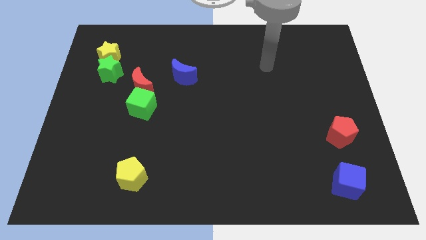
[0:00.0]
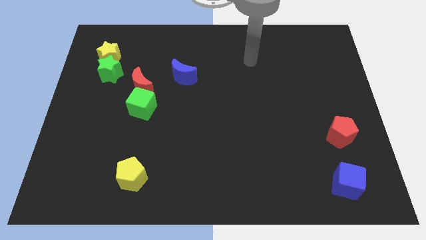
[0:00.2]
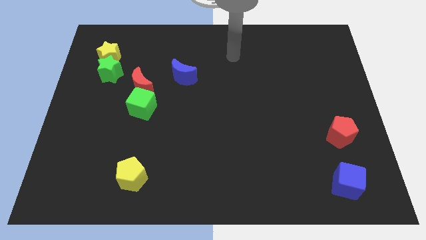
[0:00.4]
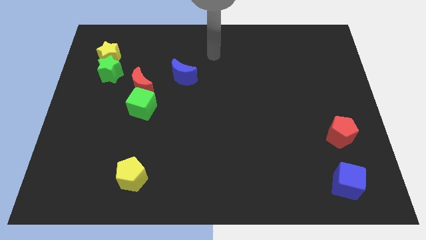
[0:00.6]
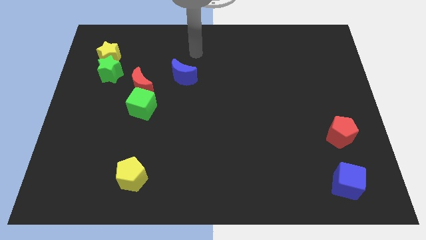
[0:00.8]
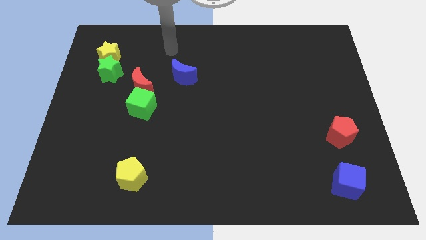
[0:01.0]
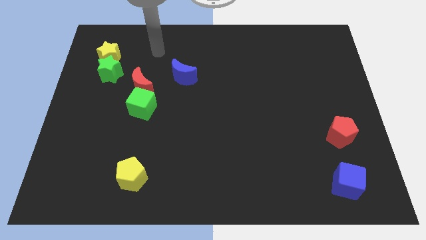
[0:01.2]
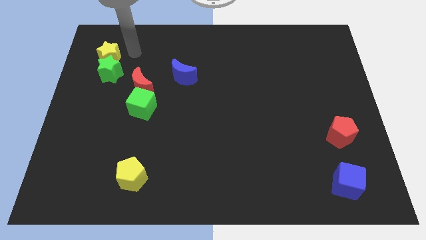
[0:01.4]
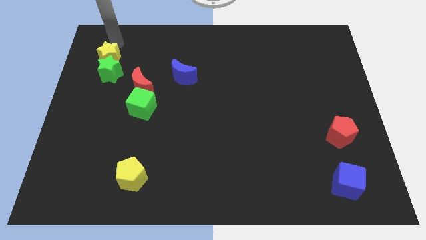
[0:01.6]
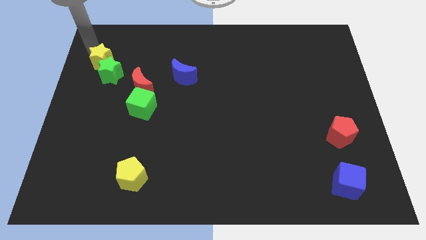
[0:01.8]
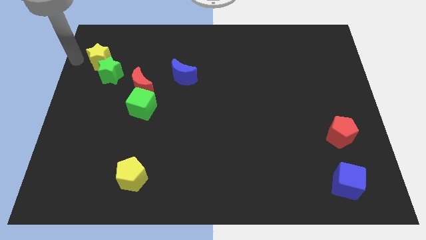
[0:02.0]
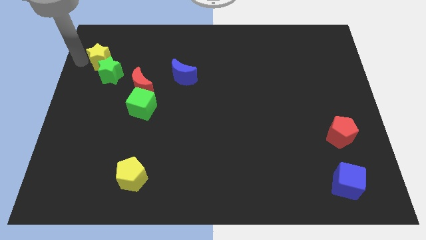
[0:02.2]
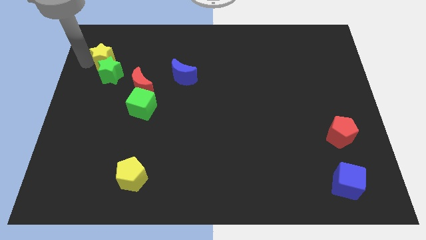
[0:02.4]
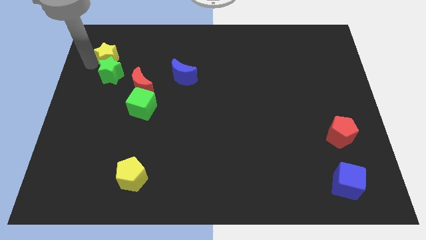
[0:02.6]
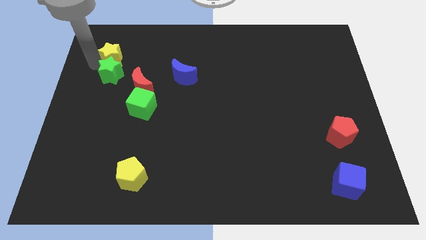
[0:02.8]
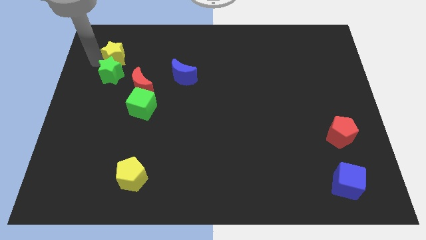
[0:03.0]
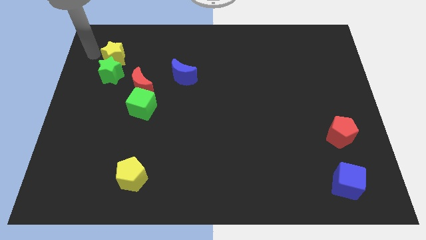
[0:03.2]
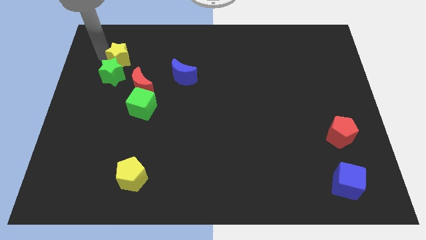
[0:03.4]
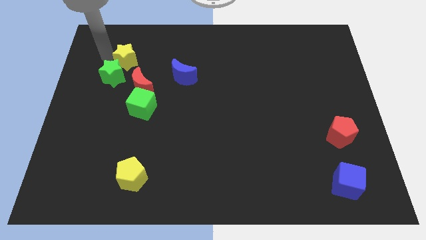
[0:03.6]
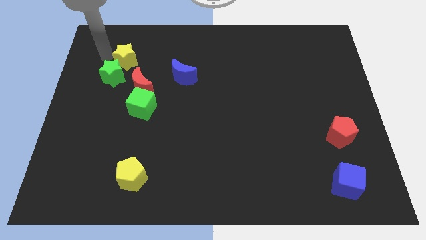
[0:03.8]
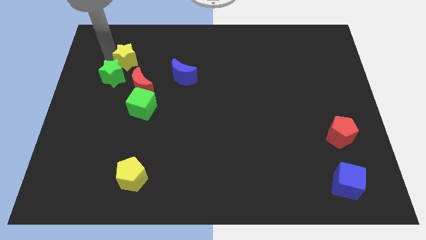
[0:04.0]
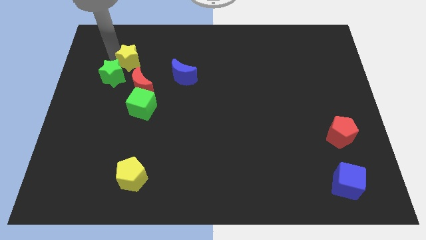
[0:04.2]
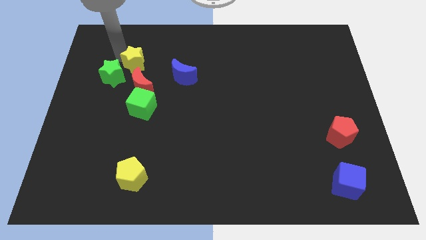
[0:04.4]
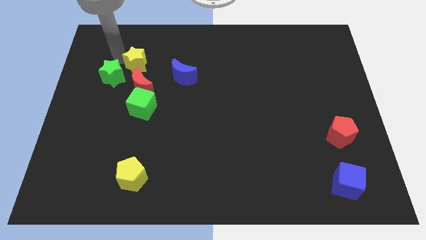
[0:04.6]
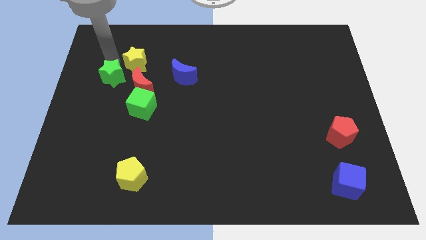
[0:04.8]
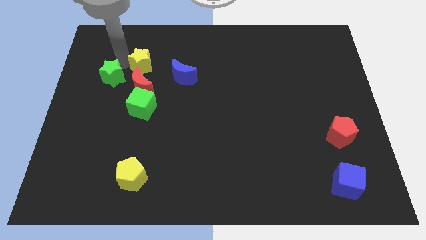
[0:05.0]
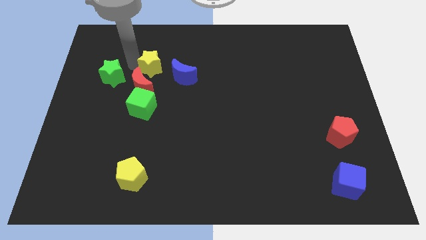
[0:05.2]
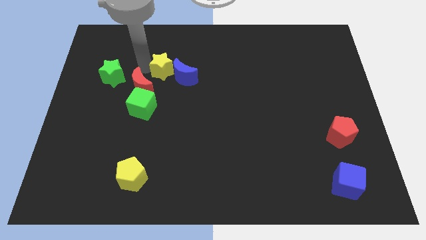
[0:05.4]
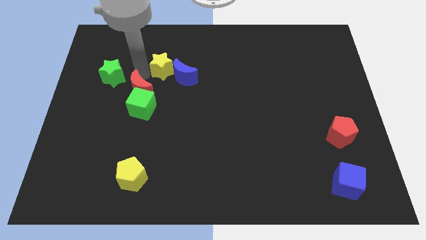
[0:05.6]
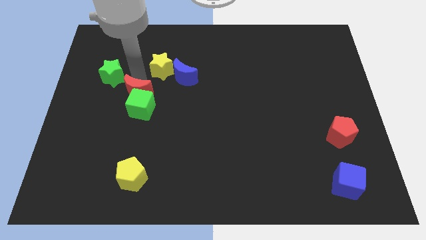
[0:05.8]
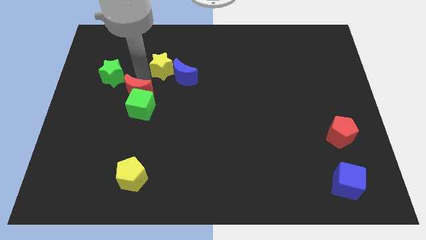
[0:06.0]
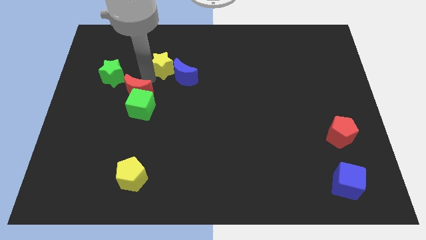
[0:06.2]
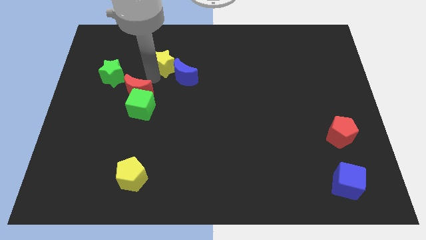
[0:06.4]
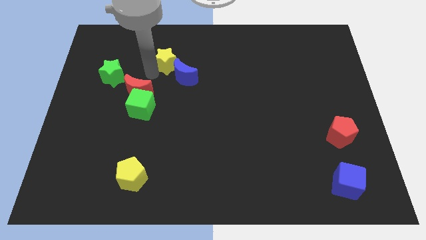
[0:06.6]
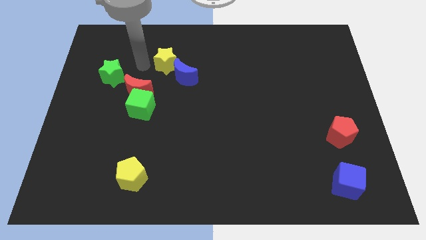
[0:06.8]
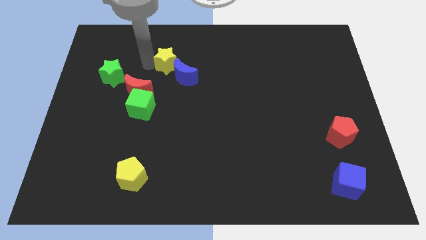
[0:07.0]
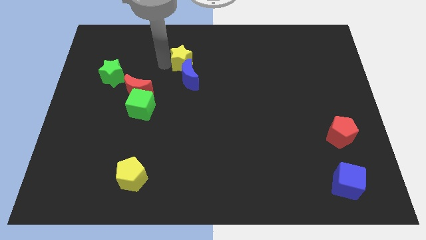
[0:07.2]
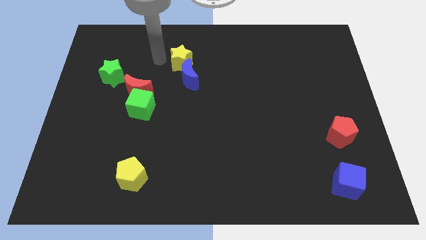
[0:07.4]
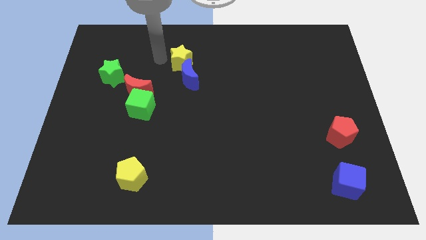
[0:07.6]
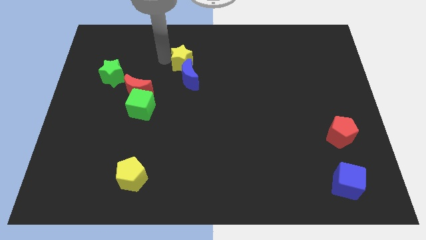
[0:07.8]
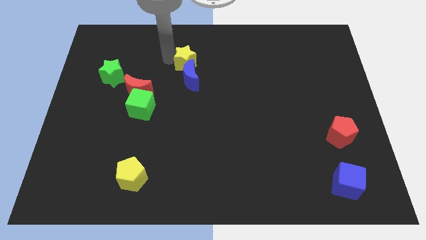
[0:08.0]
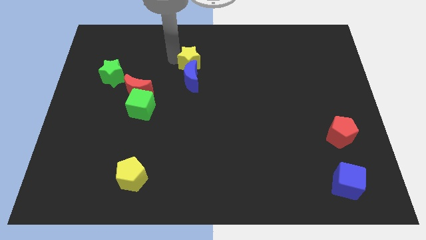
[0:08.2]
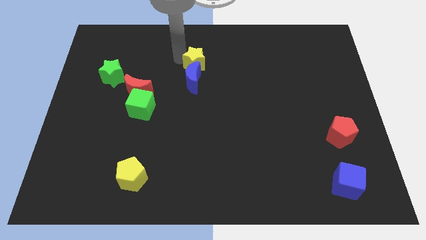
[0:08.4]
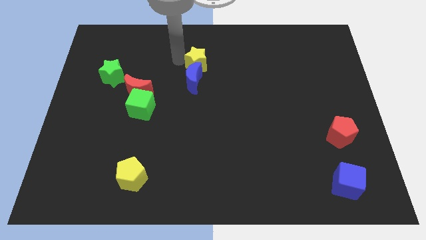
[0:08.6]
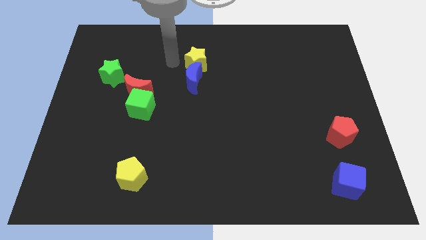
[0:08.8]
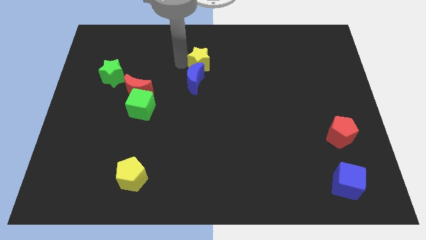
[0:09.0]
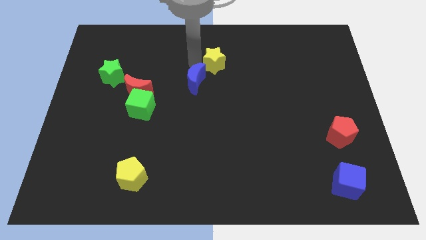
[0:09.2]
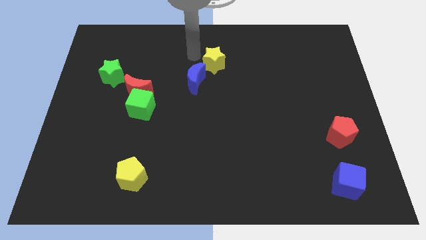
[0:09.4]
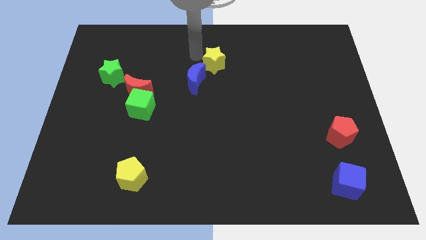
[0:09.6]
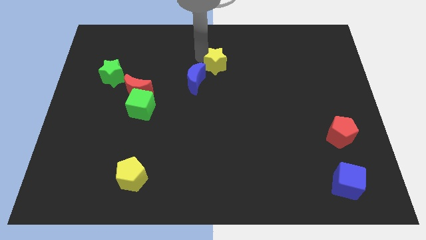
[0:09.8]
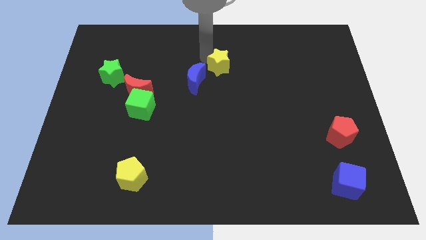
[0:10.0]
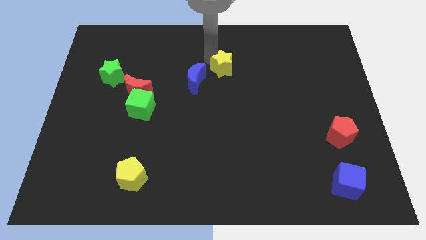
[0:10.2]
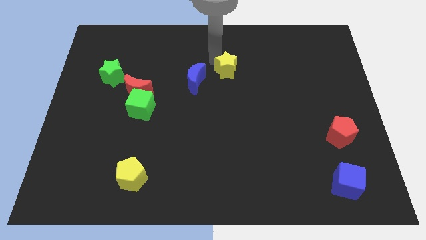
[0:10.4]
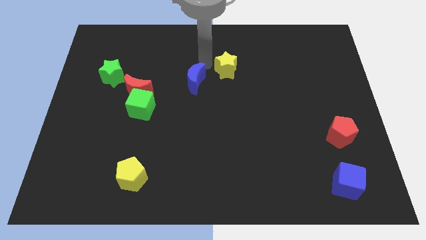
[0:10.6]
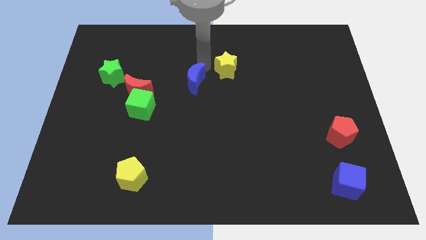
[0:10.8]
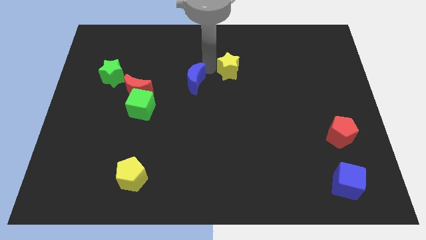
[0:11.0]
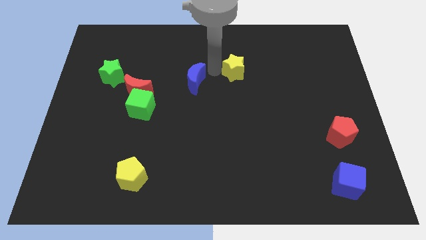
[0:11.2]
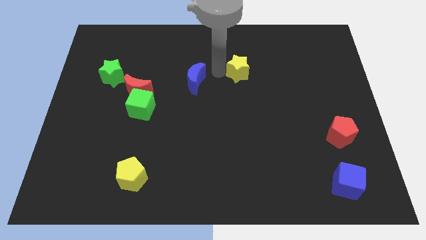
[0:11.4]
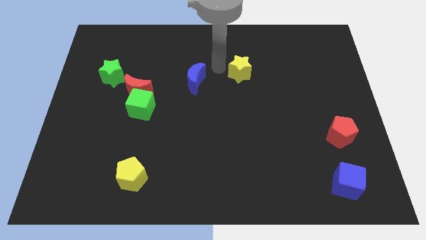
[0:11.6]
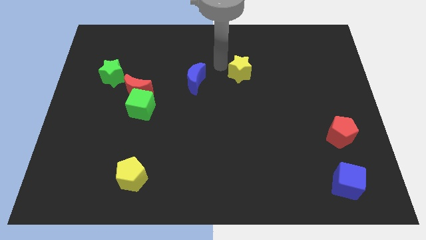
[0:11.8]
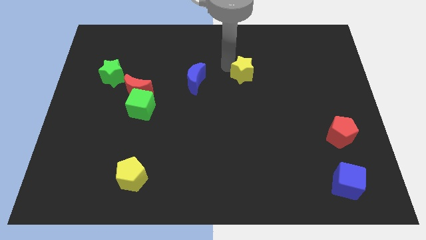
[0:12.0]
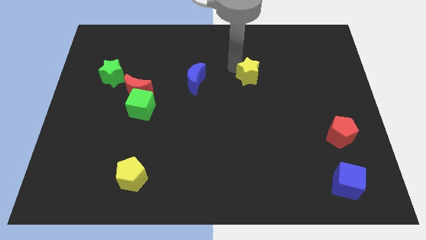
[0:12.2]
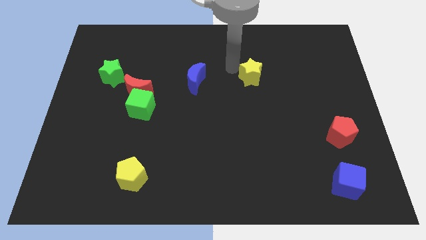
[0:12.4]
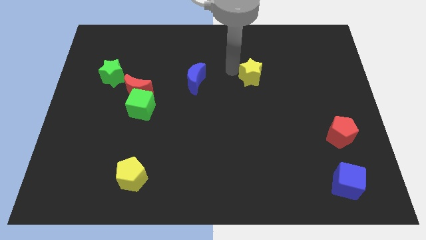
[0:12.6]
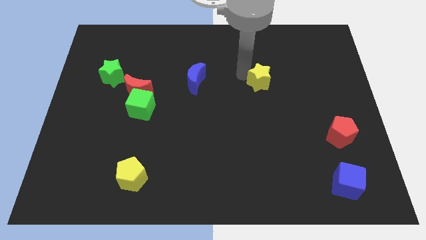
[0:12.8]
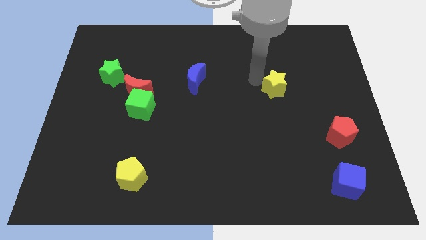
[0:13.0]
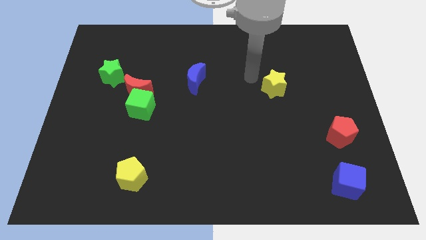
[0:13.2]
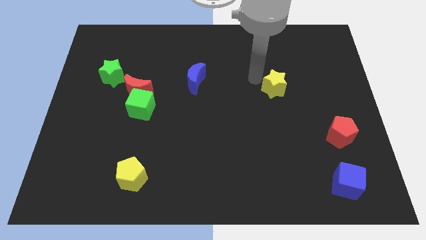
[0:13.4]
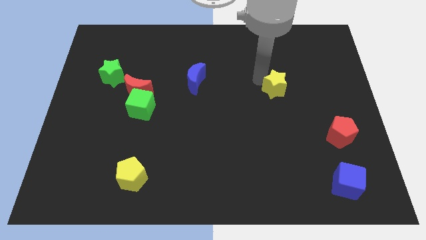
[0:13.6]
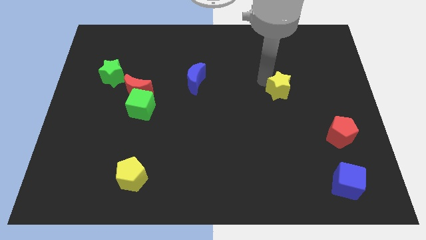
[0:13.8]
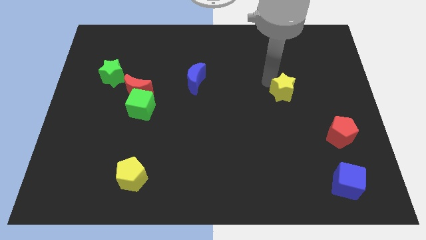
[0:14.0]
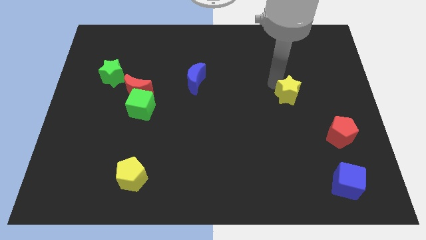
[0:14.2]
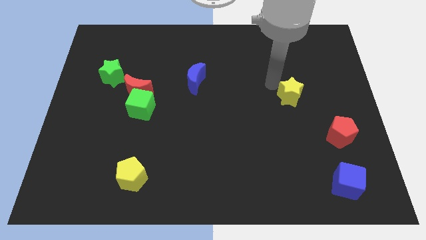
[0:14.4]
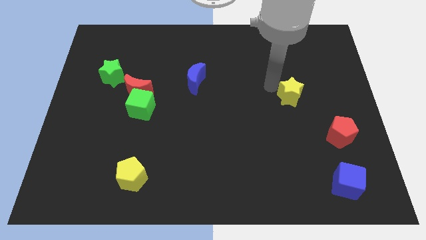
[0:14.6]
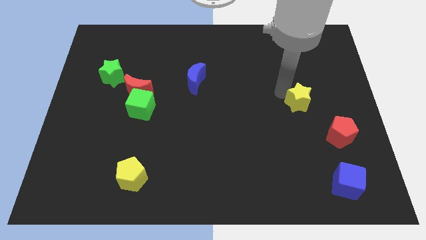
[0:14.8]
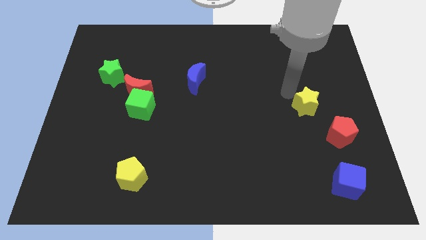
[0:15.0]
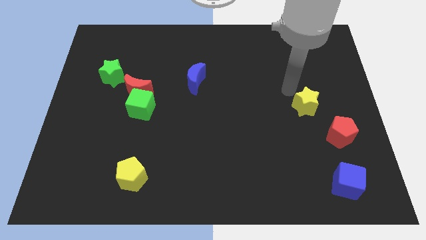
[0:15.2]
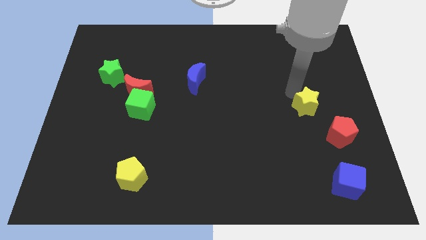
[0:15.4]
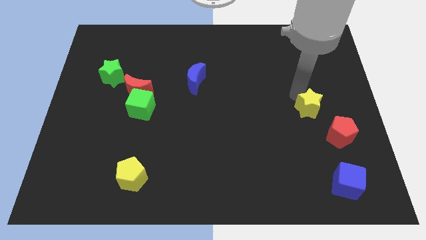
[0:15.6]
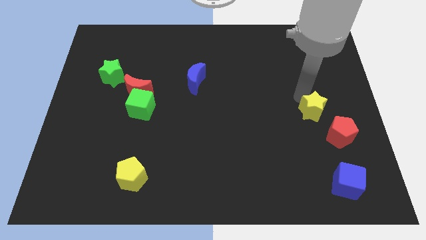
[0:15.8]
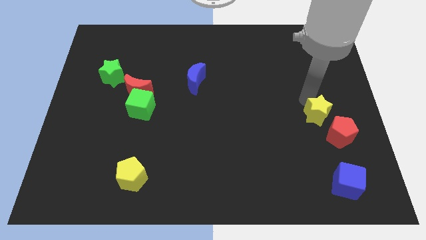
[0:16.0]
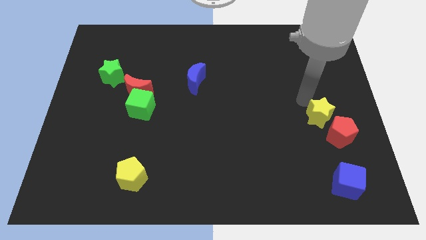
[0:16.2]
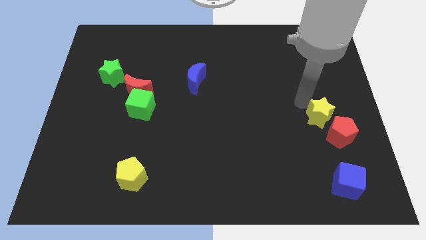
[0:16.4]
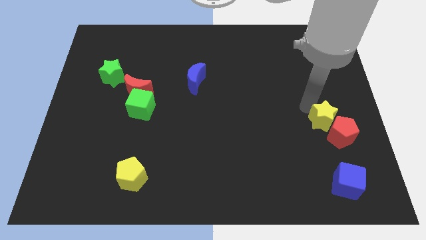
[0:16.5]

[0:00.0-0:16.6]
slide the yellow star close to the red pentagon
